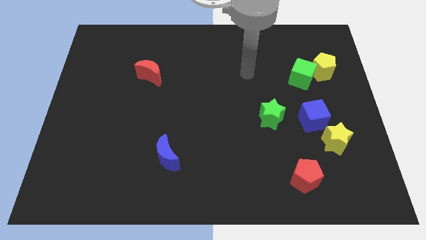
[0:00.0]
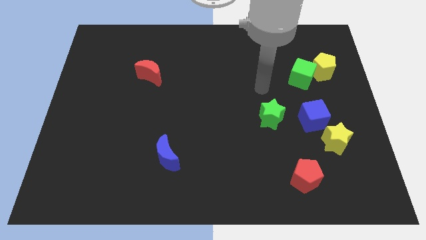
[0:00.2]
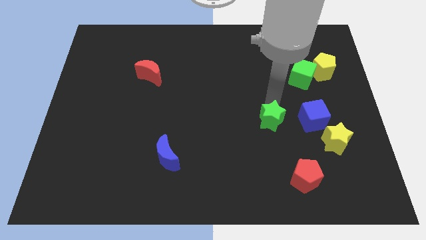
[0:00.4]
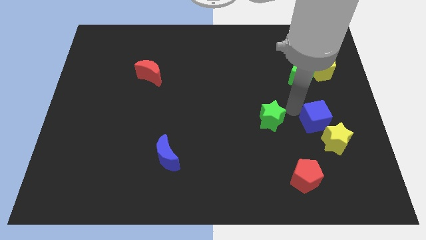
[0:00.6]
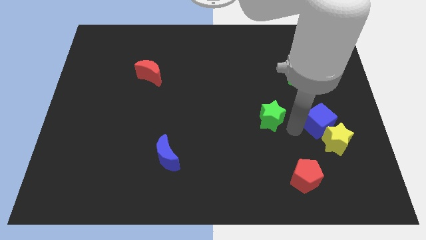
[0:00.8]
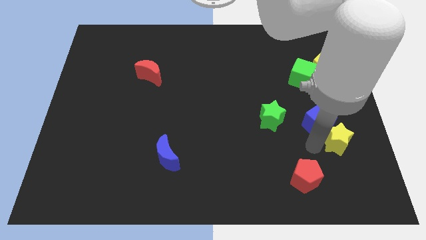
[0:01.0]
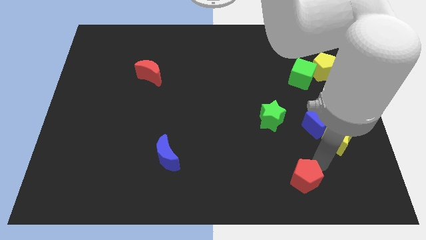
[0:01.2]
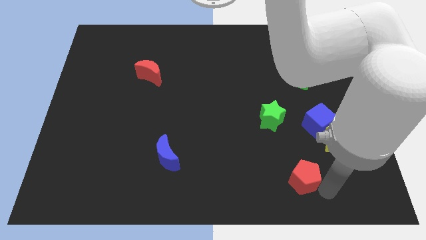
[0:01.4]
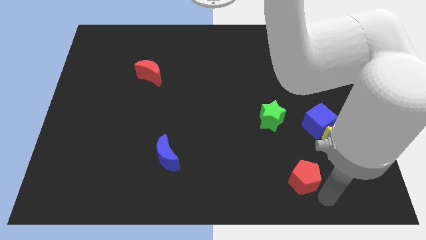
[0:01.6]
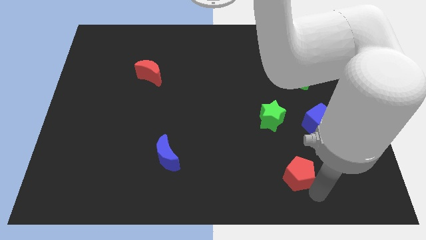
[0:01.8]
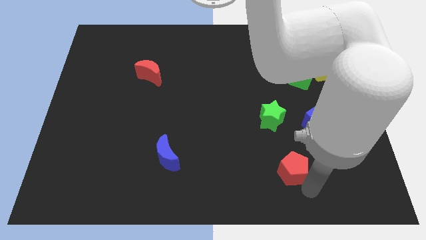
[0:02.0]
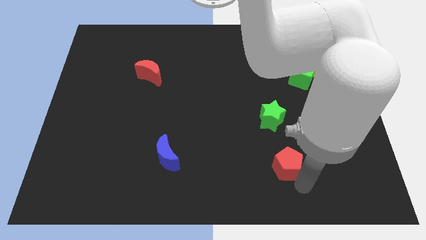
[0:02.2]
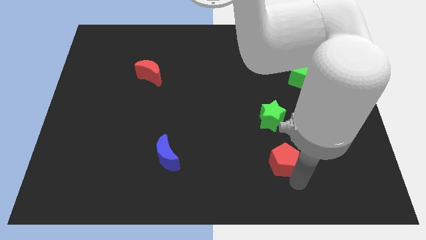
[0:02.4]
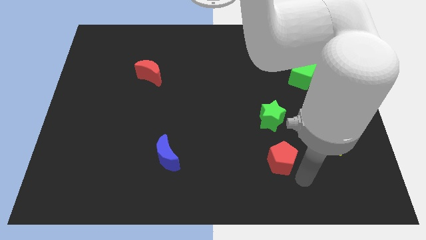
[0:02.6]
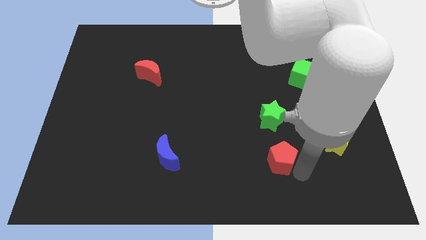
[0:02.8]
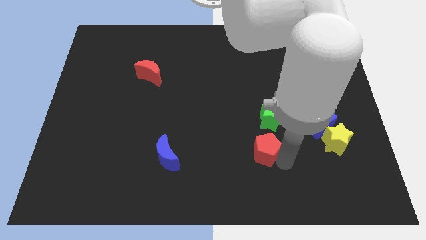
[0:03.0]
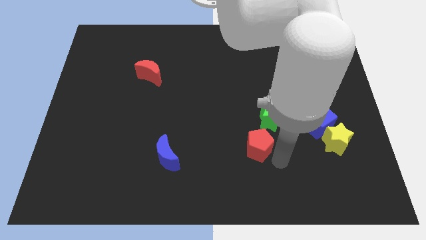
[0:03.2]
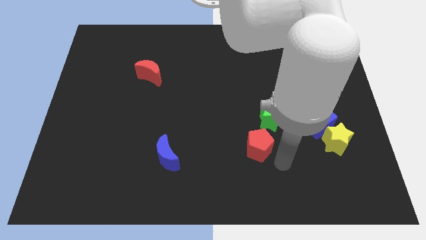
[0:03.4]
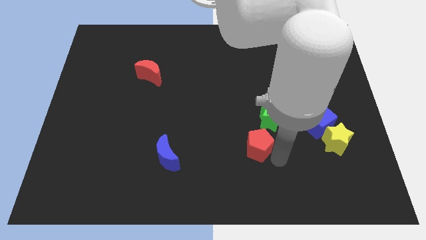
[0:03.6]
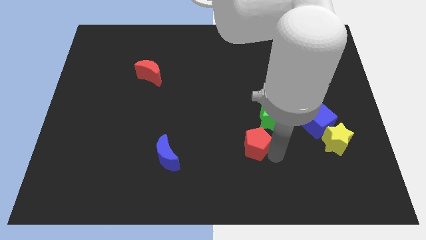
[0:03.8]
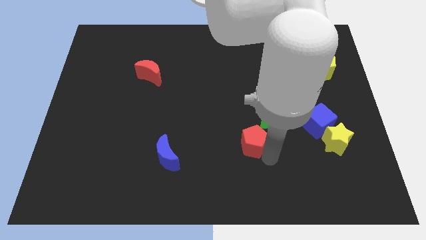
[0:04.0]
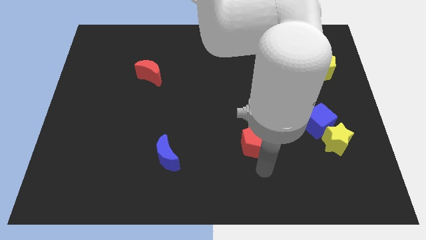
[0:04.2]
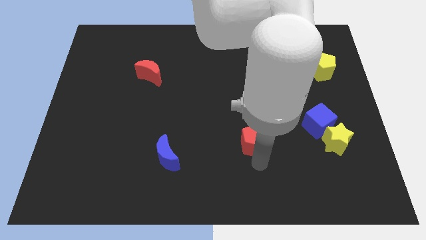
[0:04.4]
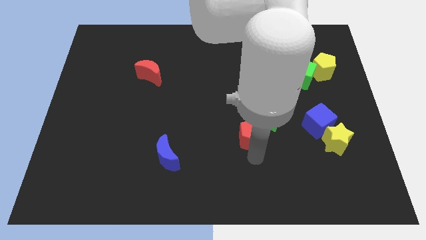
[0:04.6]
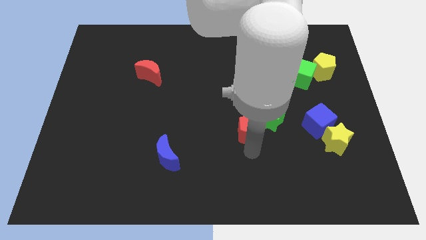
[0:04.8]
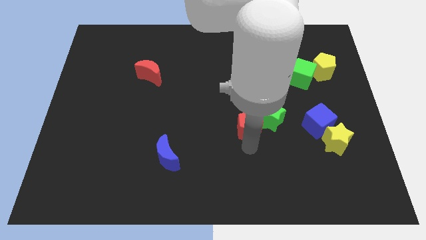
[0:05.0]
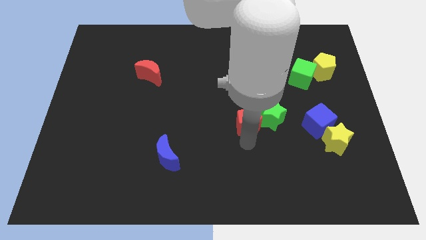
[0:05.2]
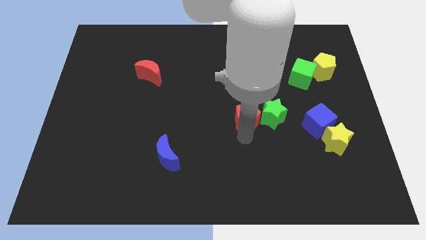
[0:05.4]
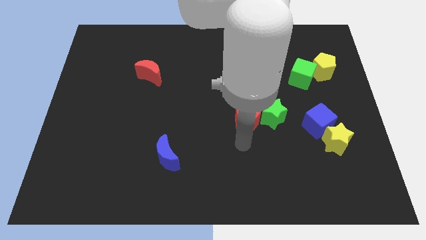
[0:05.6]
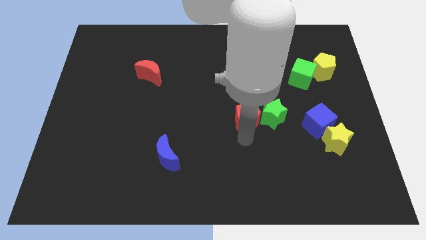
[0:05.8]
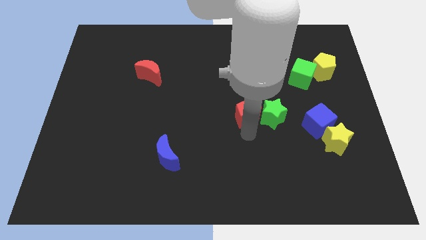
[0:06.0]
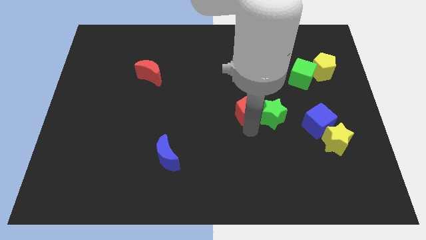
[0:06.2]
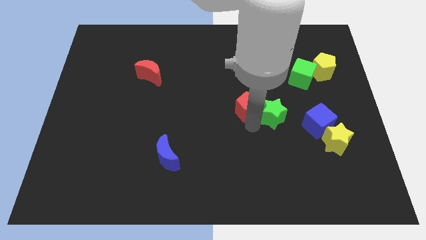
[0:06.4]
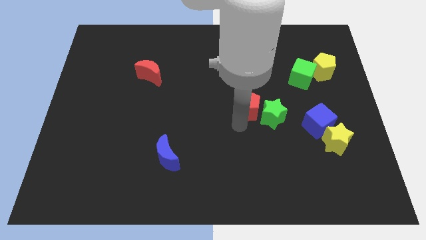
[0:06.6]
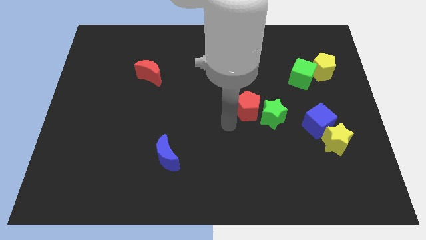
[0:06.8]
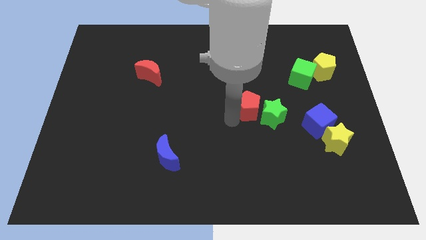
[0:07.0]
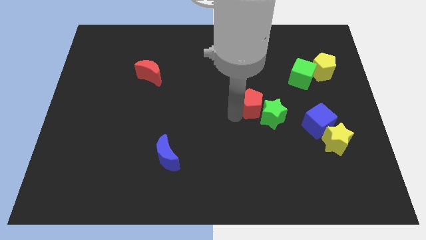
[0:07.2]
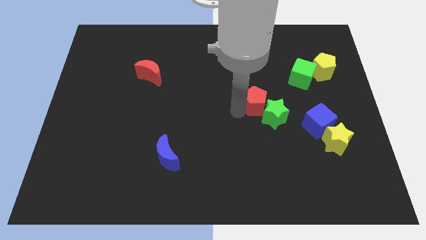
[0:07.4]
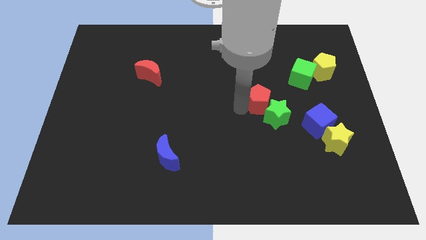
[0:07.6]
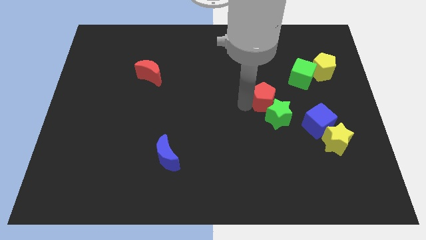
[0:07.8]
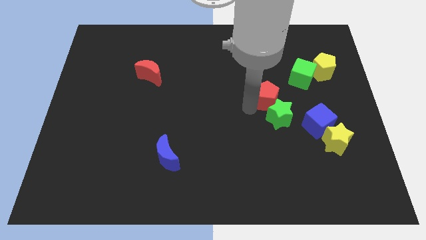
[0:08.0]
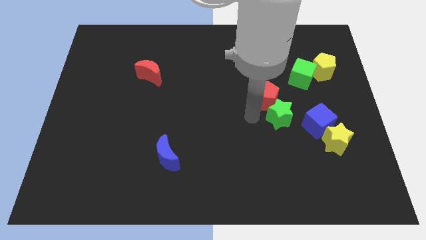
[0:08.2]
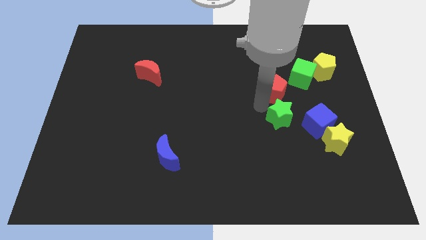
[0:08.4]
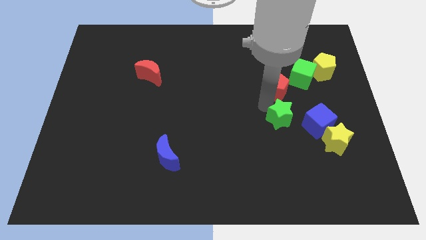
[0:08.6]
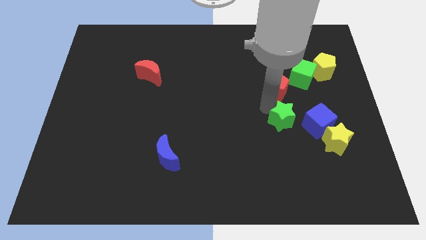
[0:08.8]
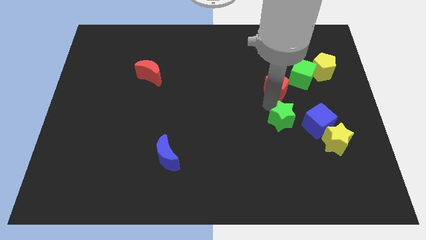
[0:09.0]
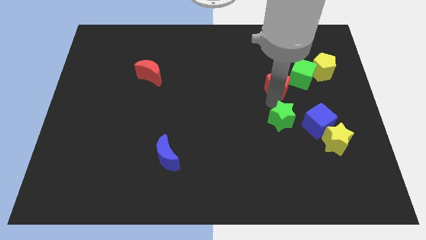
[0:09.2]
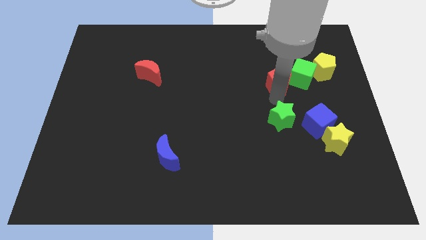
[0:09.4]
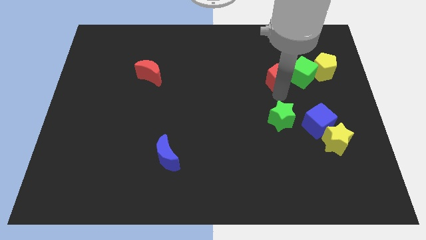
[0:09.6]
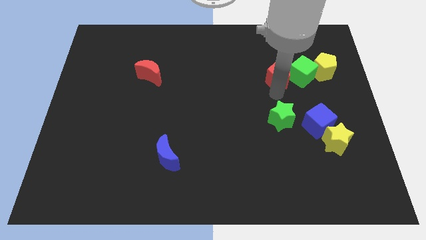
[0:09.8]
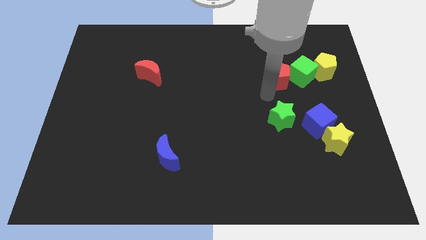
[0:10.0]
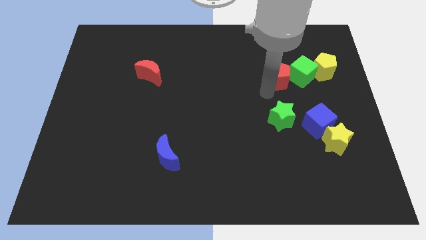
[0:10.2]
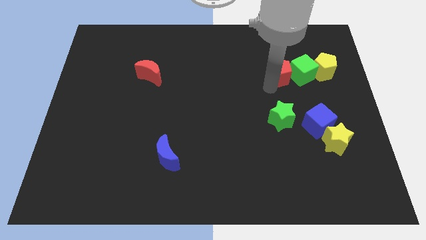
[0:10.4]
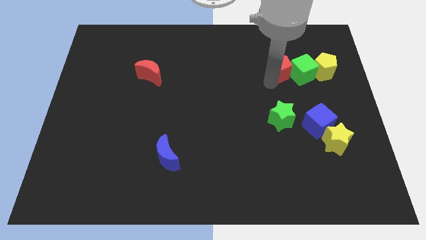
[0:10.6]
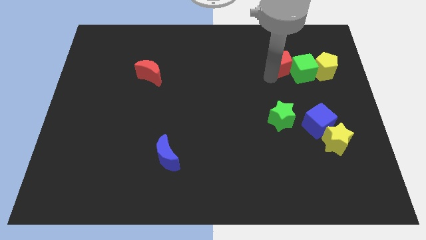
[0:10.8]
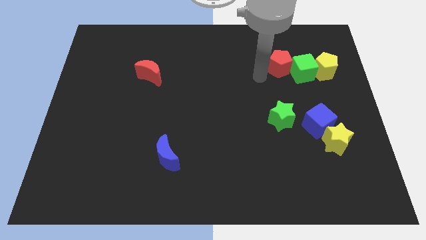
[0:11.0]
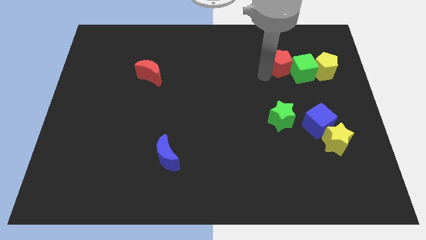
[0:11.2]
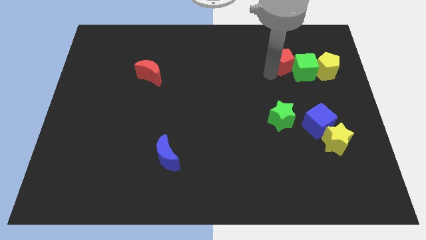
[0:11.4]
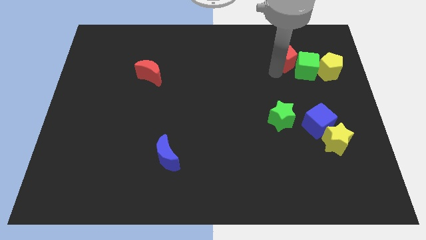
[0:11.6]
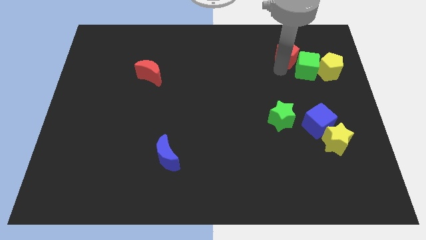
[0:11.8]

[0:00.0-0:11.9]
put the red pentagon to the top left side of the yellow pentagon

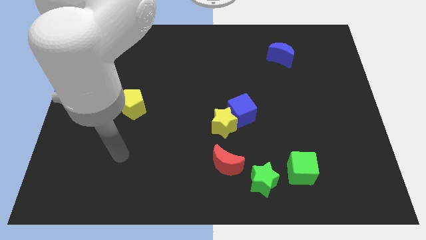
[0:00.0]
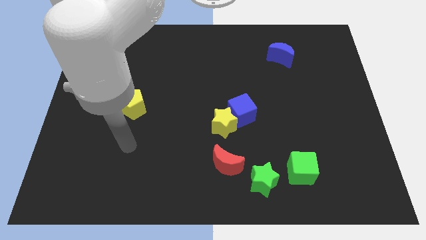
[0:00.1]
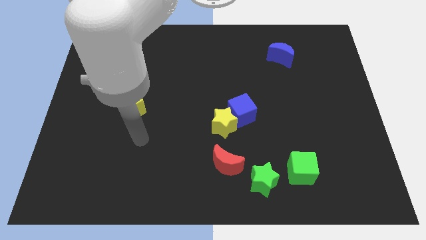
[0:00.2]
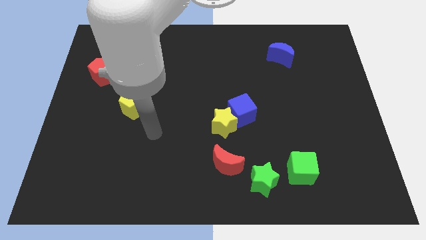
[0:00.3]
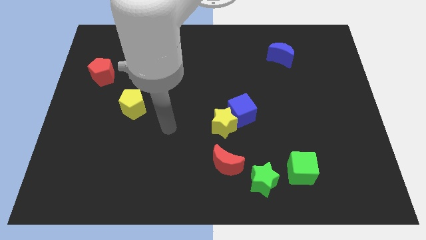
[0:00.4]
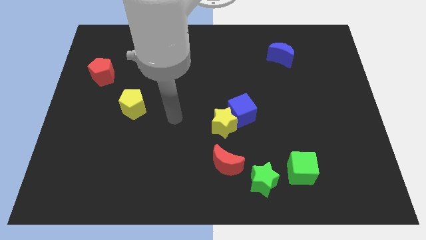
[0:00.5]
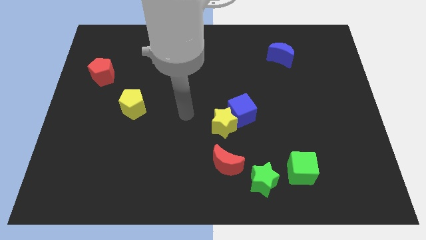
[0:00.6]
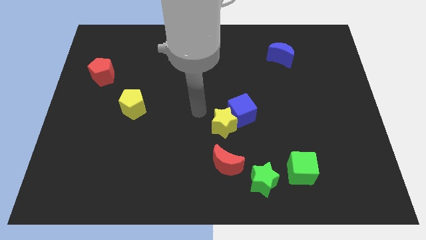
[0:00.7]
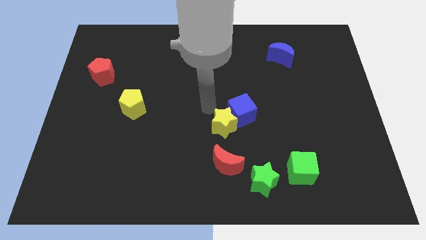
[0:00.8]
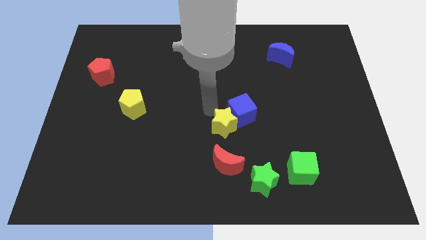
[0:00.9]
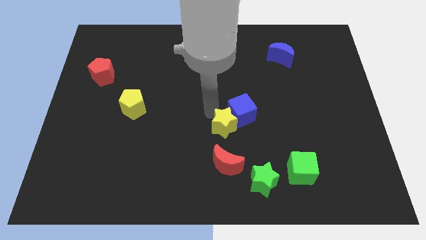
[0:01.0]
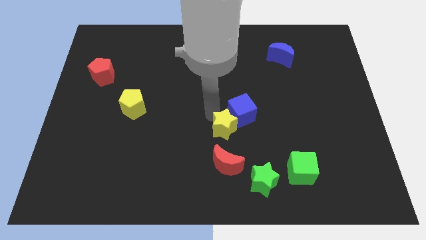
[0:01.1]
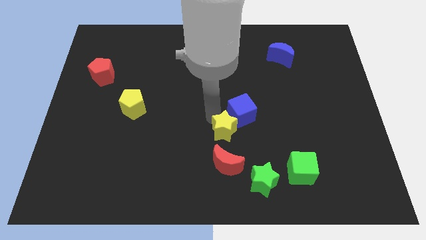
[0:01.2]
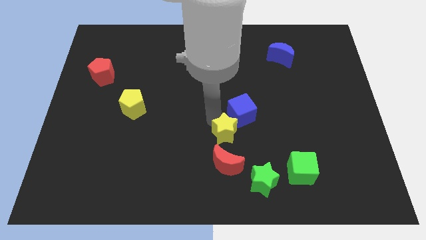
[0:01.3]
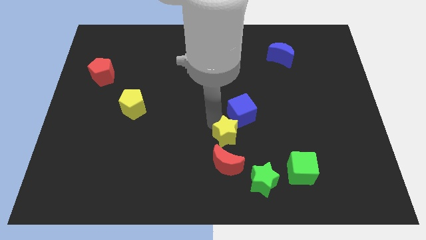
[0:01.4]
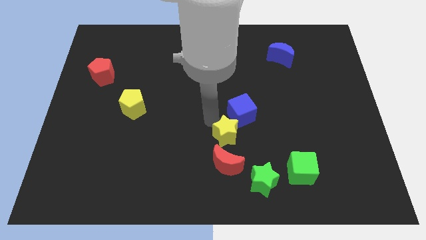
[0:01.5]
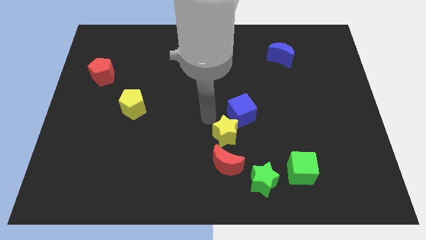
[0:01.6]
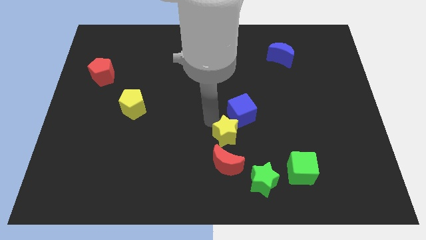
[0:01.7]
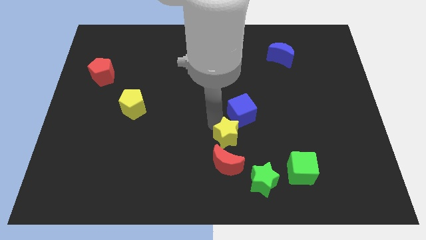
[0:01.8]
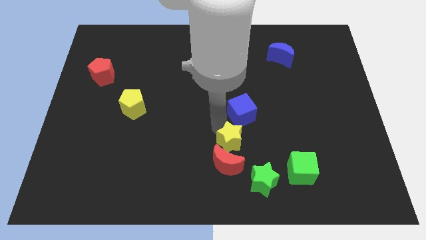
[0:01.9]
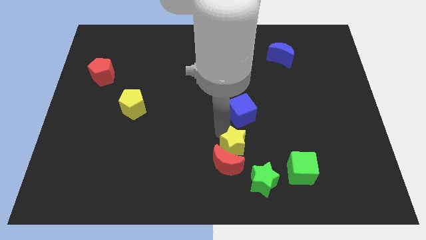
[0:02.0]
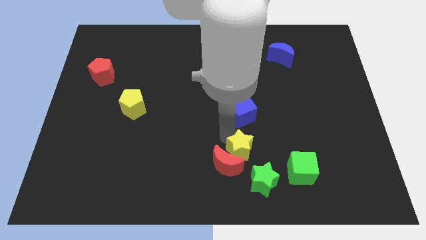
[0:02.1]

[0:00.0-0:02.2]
put the yellow star to the left side of the green cube
